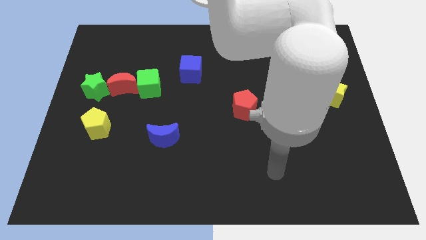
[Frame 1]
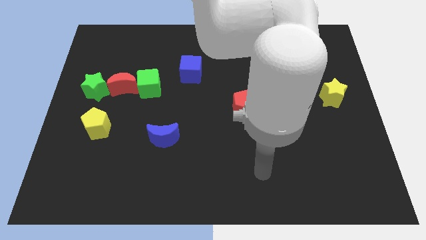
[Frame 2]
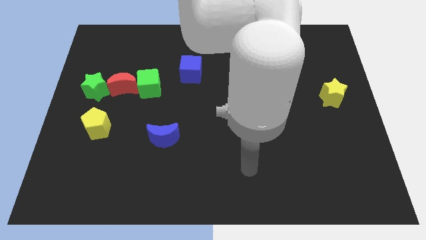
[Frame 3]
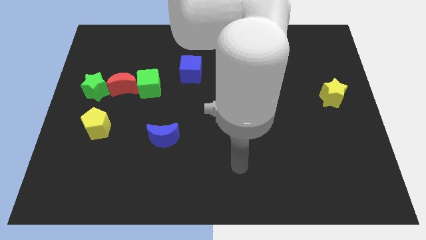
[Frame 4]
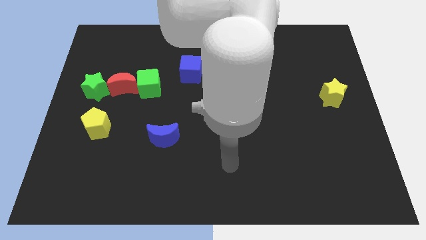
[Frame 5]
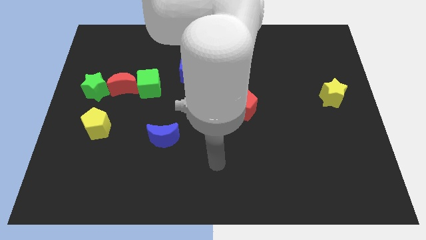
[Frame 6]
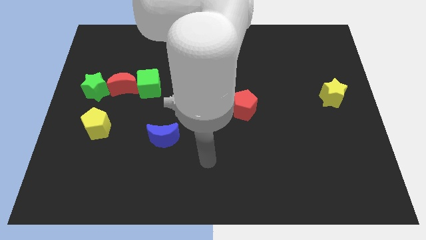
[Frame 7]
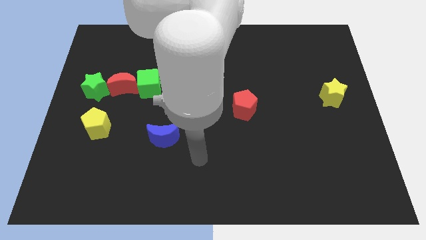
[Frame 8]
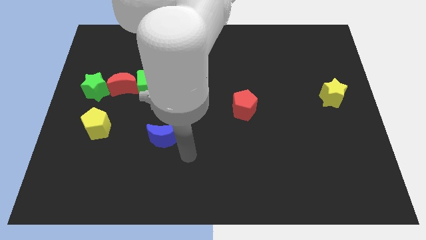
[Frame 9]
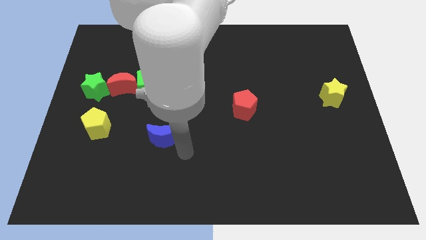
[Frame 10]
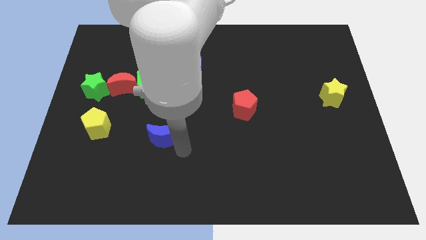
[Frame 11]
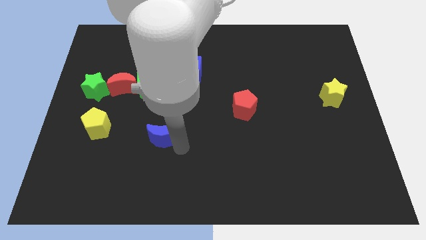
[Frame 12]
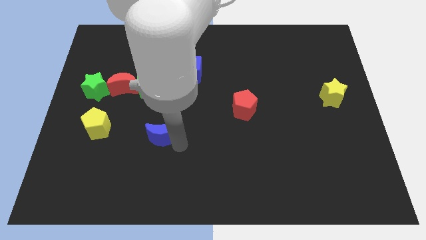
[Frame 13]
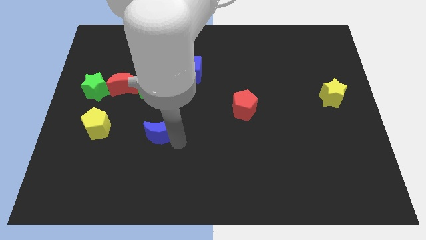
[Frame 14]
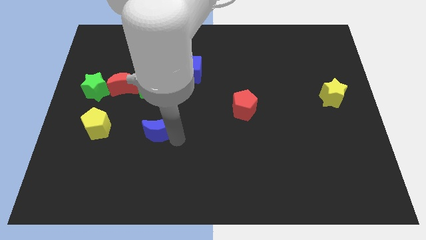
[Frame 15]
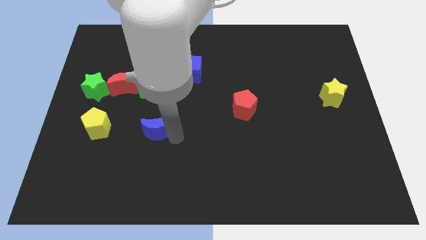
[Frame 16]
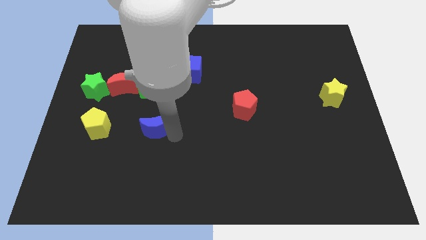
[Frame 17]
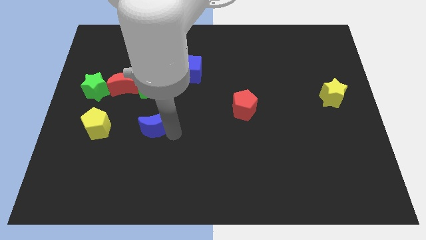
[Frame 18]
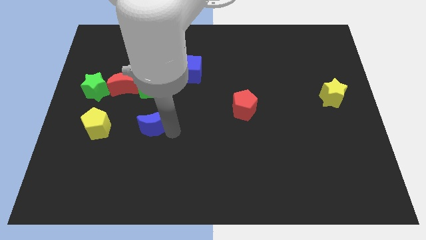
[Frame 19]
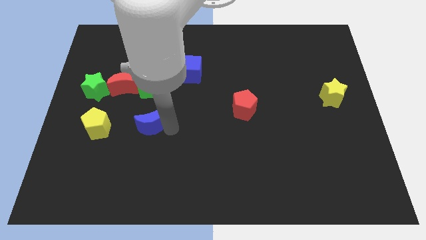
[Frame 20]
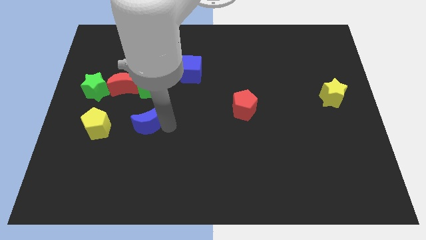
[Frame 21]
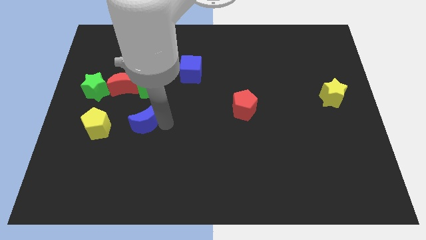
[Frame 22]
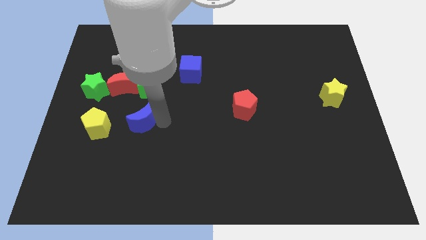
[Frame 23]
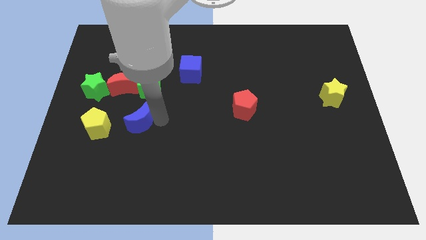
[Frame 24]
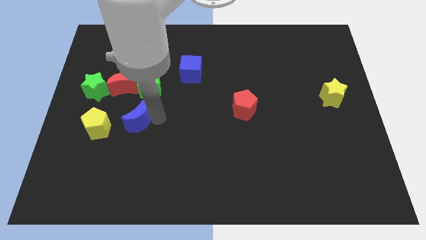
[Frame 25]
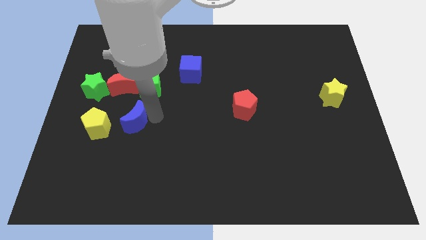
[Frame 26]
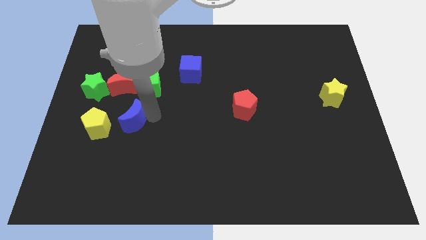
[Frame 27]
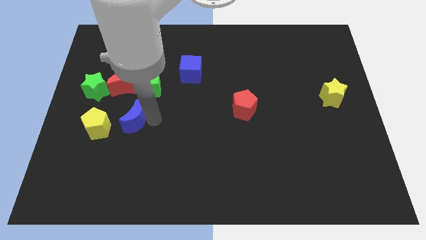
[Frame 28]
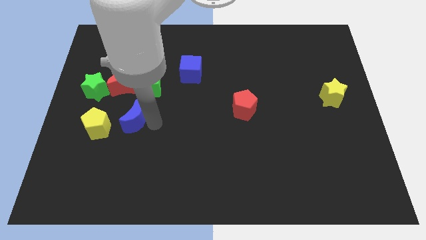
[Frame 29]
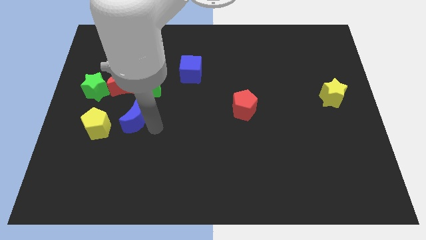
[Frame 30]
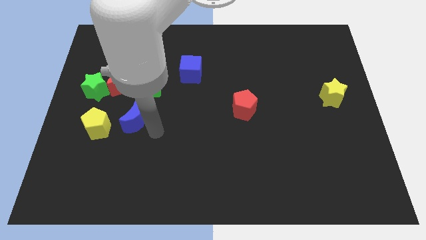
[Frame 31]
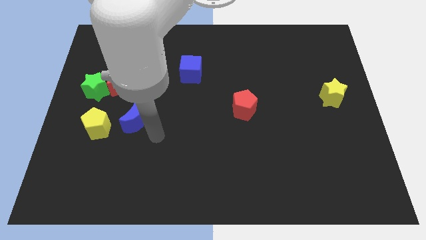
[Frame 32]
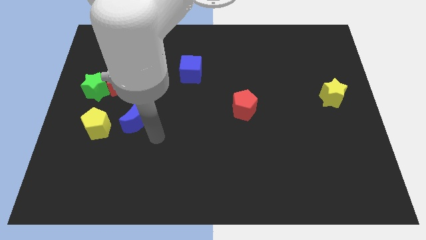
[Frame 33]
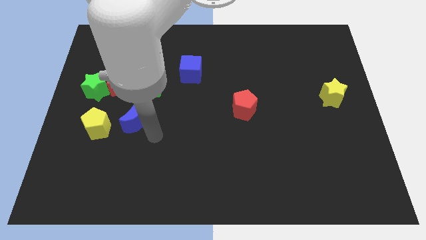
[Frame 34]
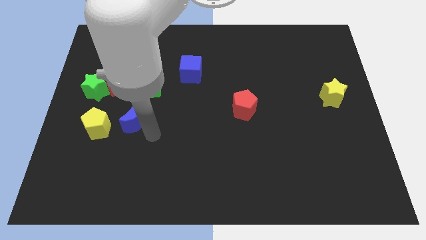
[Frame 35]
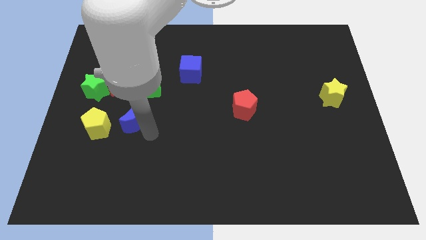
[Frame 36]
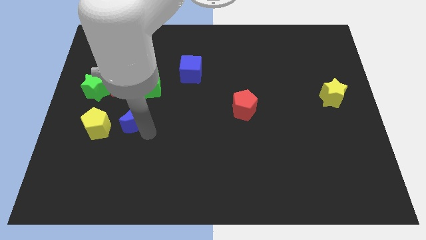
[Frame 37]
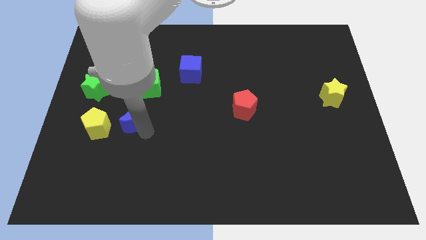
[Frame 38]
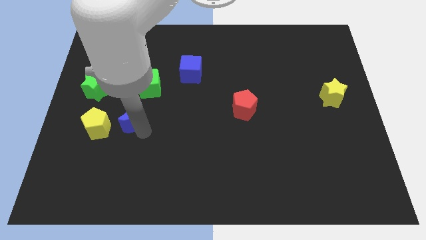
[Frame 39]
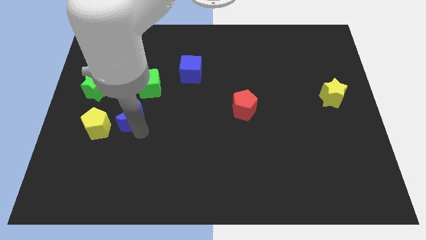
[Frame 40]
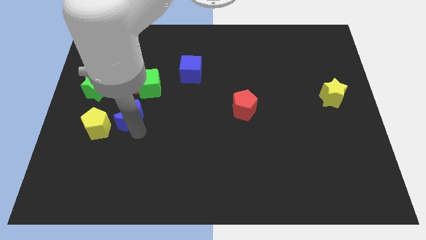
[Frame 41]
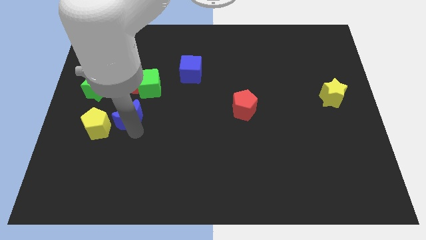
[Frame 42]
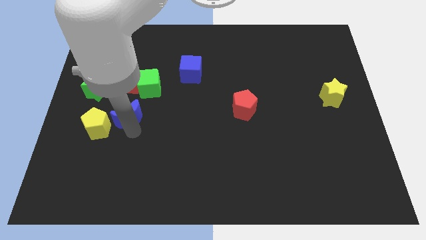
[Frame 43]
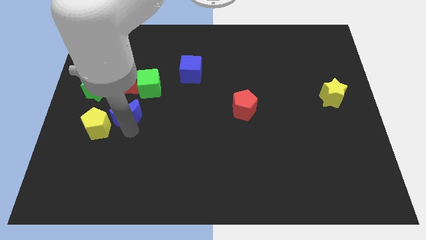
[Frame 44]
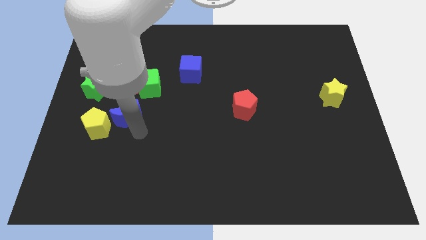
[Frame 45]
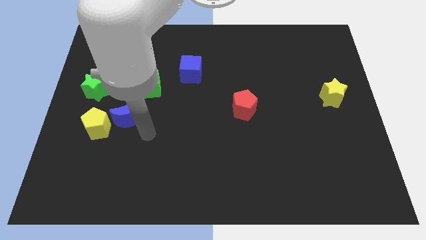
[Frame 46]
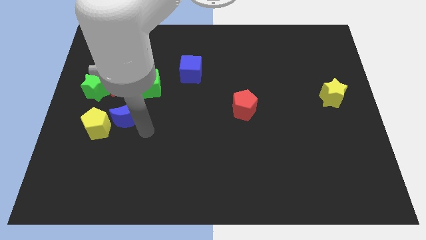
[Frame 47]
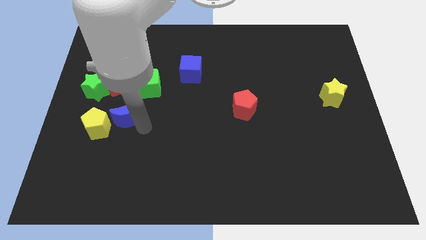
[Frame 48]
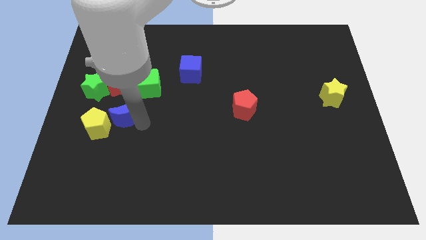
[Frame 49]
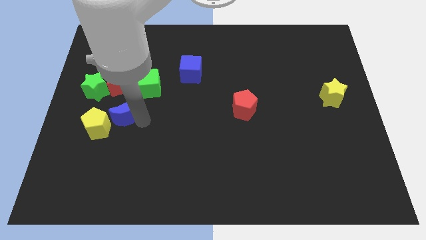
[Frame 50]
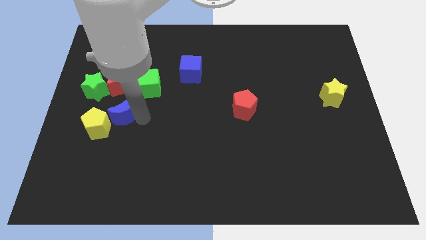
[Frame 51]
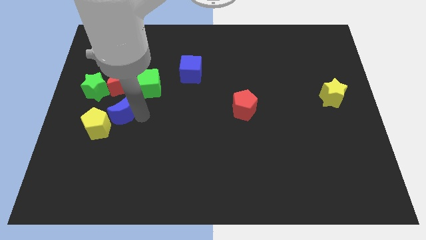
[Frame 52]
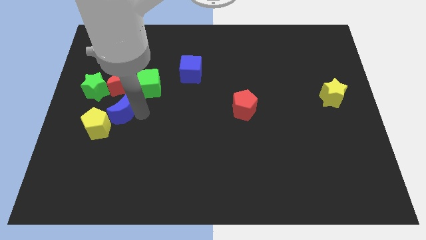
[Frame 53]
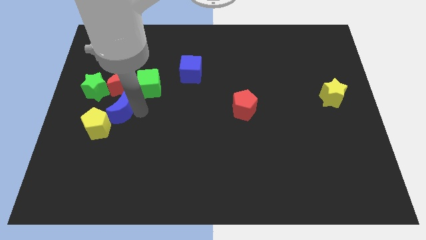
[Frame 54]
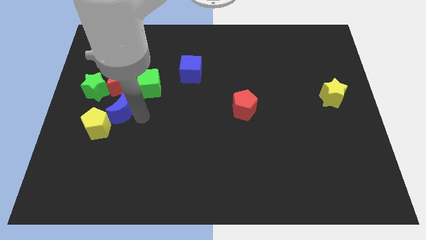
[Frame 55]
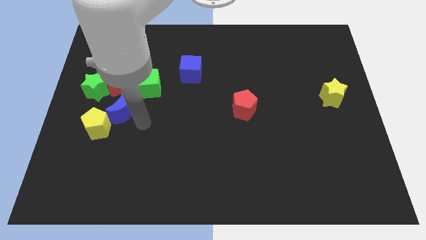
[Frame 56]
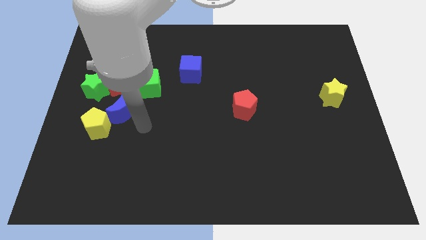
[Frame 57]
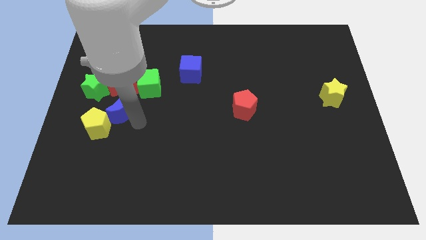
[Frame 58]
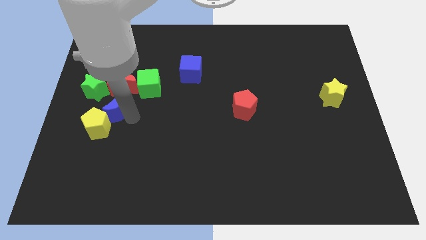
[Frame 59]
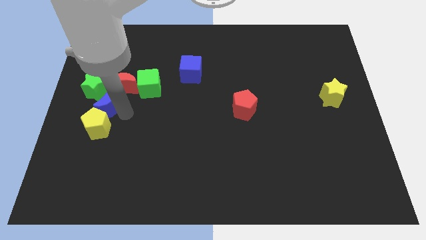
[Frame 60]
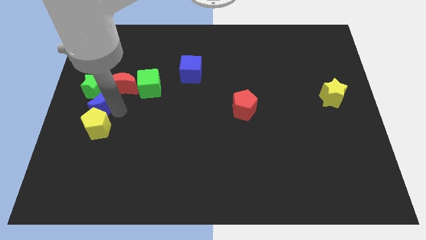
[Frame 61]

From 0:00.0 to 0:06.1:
slide the blue moon to the green star

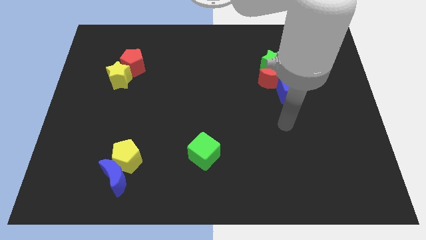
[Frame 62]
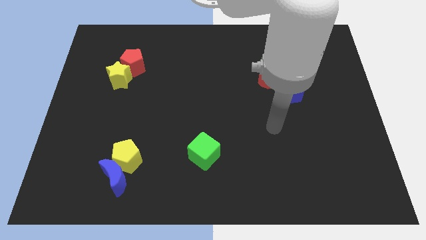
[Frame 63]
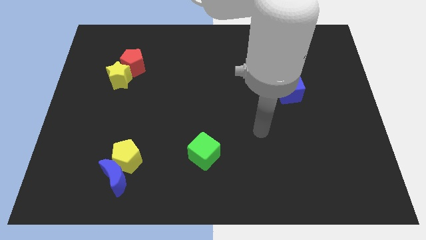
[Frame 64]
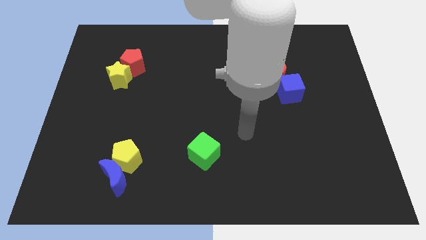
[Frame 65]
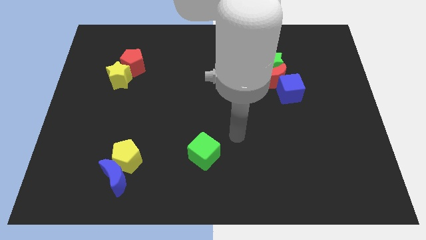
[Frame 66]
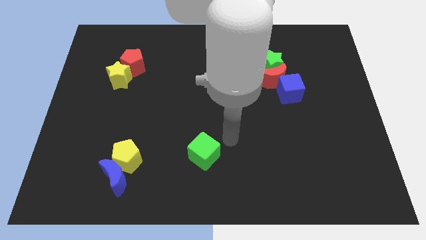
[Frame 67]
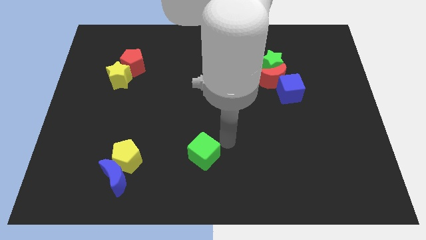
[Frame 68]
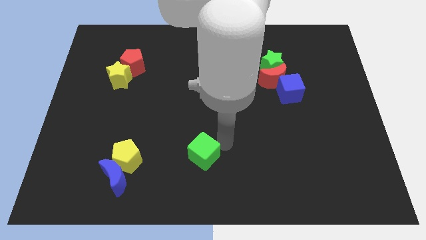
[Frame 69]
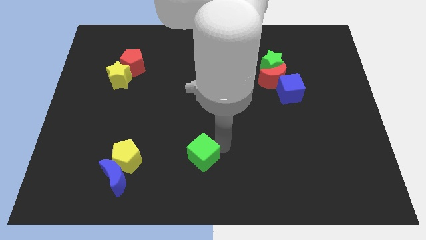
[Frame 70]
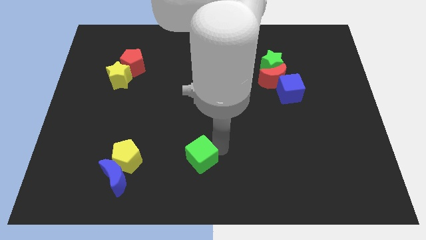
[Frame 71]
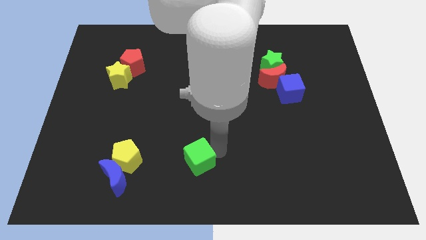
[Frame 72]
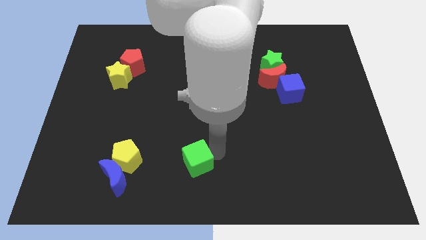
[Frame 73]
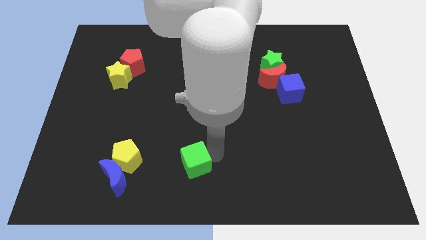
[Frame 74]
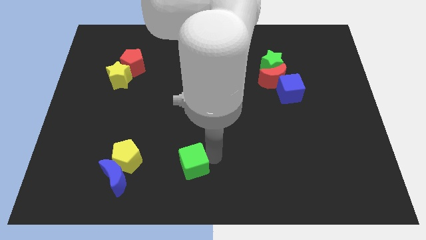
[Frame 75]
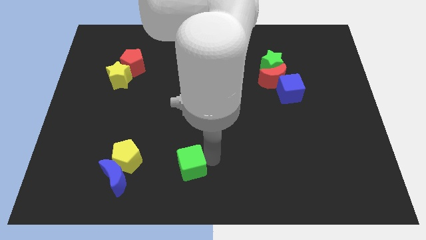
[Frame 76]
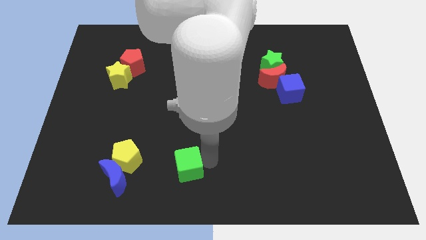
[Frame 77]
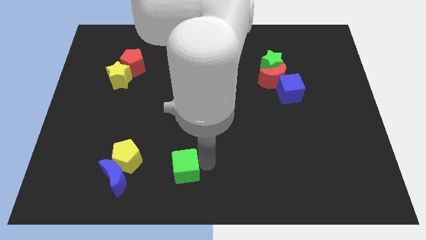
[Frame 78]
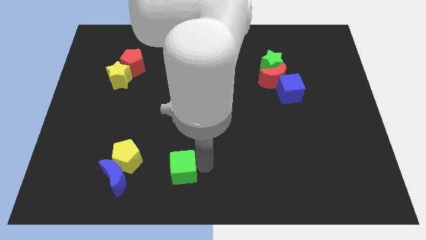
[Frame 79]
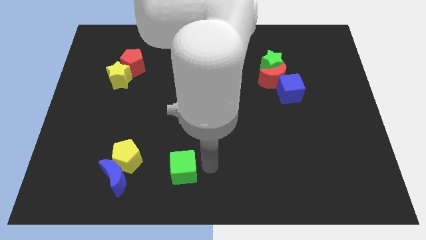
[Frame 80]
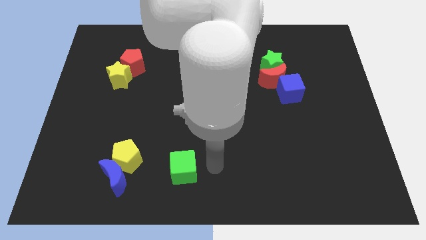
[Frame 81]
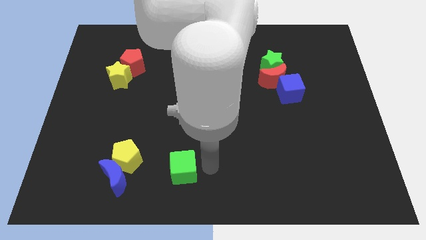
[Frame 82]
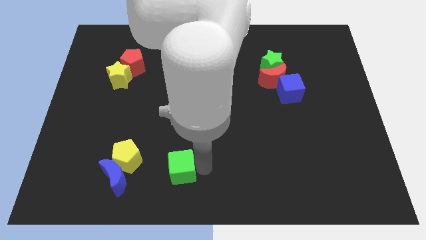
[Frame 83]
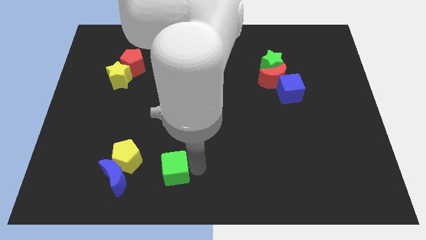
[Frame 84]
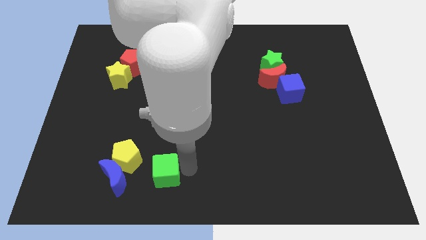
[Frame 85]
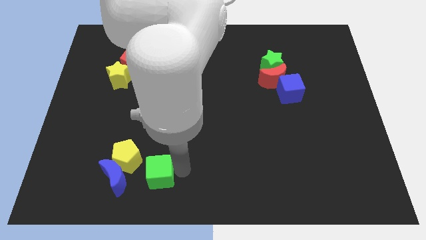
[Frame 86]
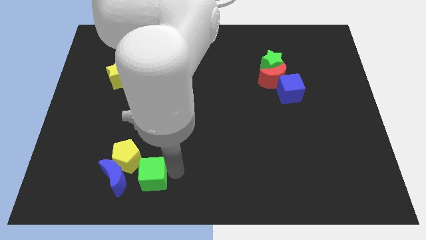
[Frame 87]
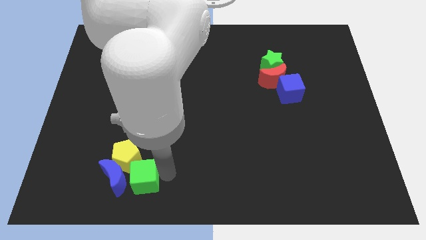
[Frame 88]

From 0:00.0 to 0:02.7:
push the green cube to the blue moon
